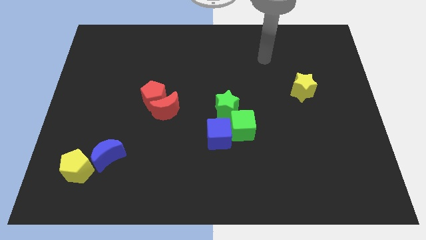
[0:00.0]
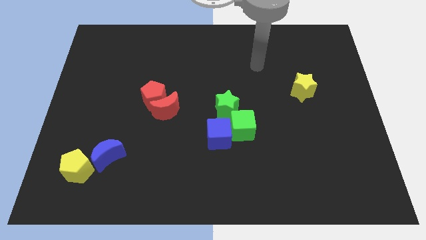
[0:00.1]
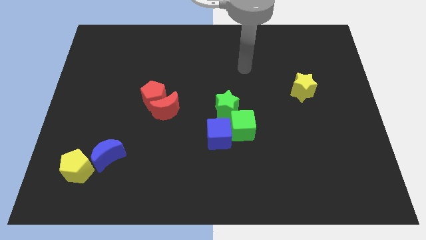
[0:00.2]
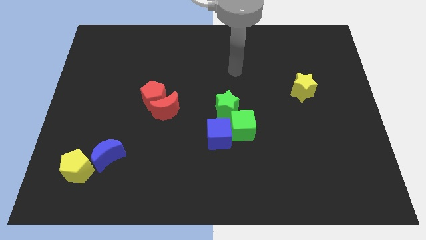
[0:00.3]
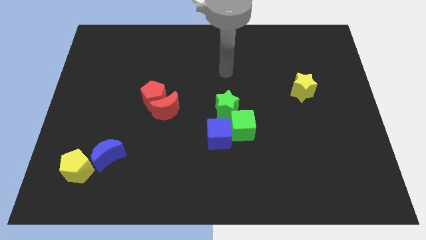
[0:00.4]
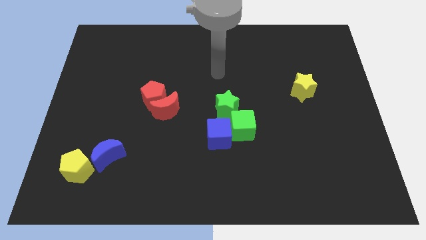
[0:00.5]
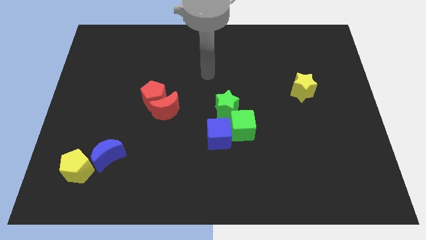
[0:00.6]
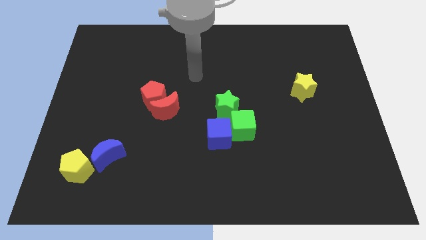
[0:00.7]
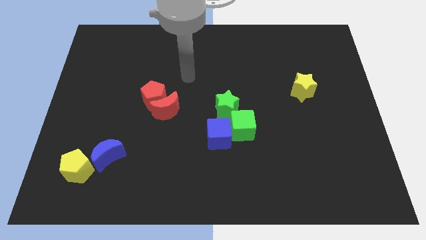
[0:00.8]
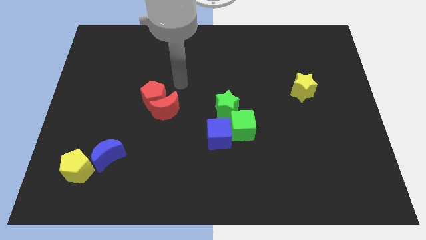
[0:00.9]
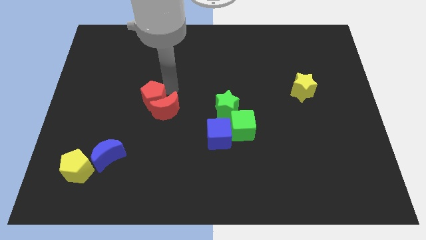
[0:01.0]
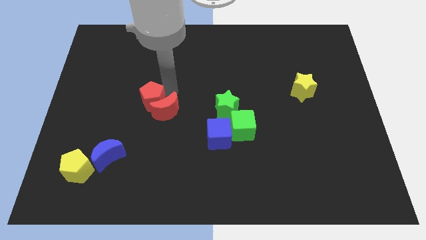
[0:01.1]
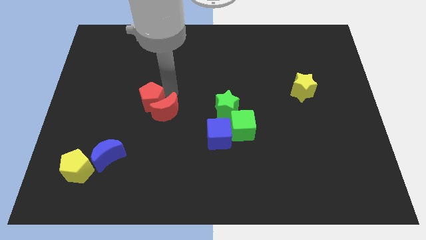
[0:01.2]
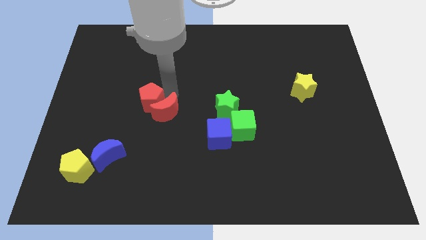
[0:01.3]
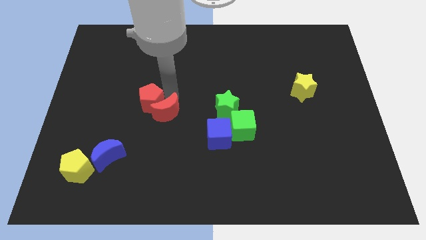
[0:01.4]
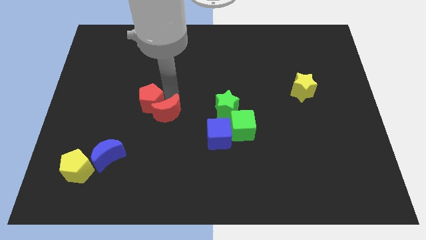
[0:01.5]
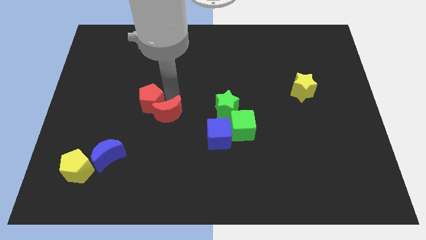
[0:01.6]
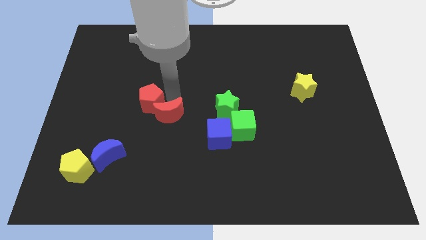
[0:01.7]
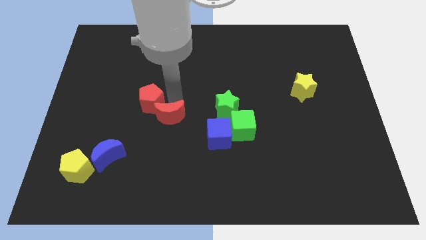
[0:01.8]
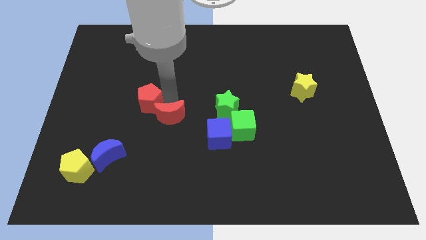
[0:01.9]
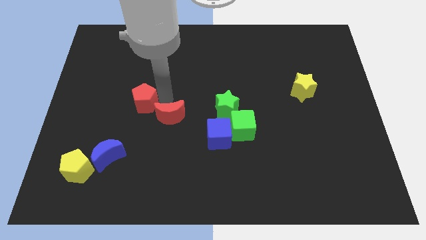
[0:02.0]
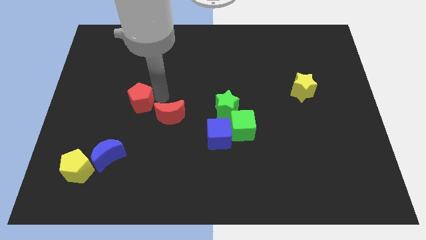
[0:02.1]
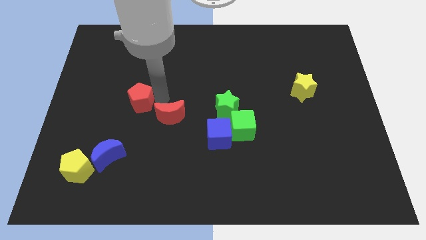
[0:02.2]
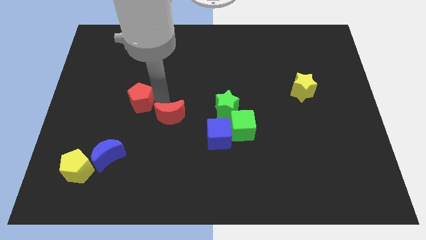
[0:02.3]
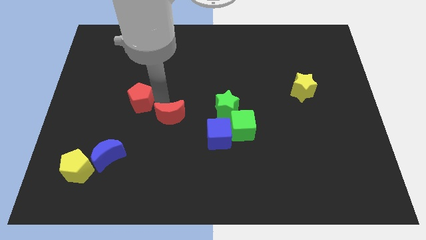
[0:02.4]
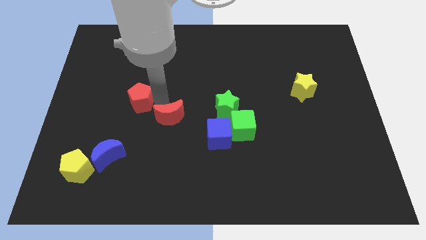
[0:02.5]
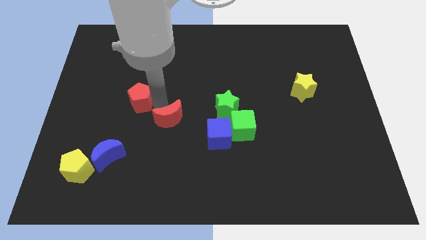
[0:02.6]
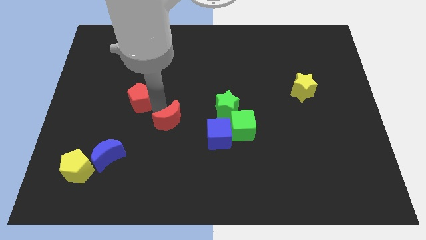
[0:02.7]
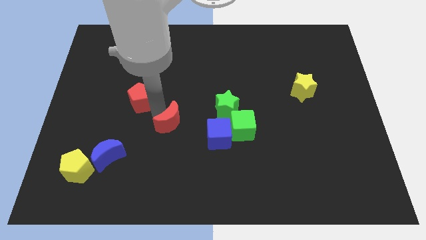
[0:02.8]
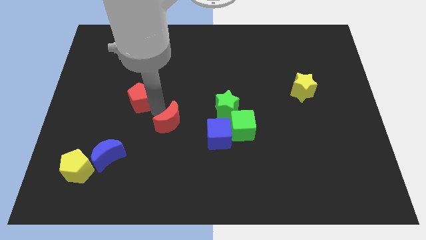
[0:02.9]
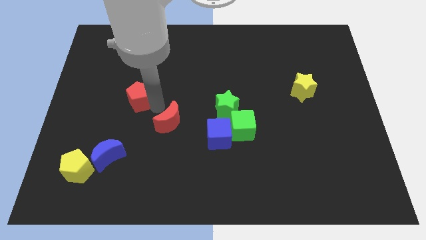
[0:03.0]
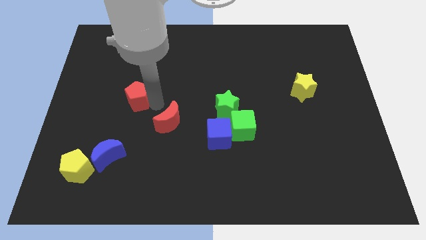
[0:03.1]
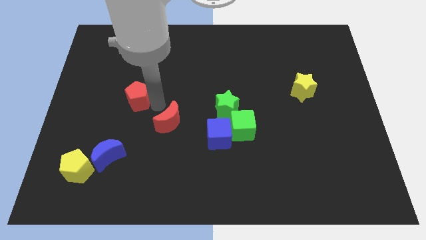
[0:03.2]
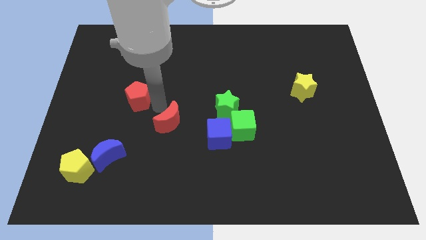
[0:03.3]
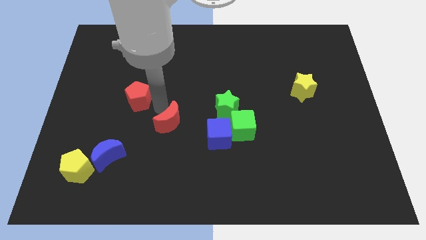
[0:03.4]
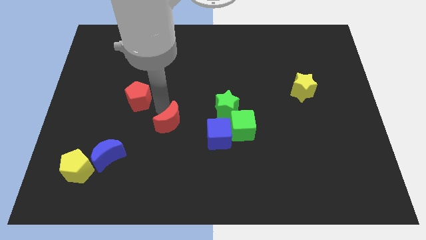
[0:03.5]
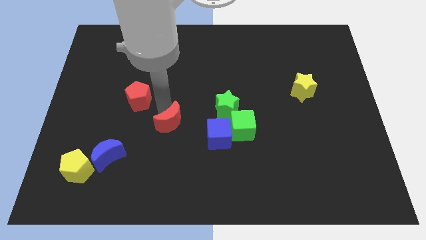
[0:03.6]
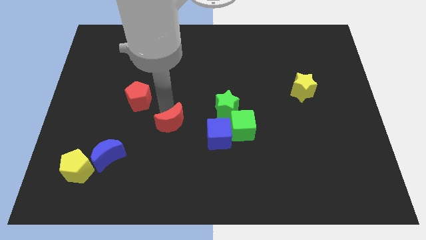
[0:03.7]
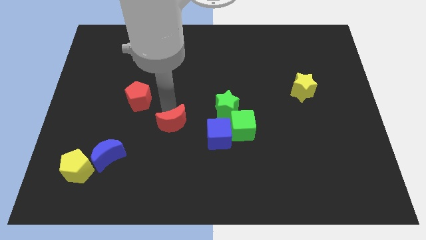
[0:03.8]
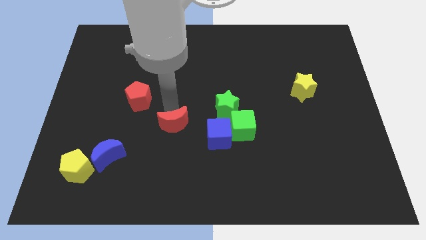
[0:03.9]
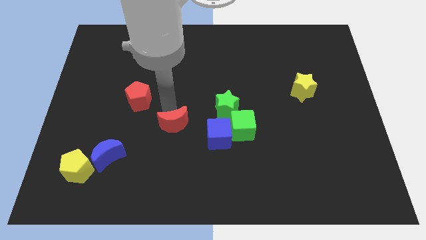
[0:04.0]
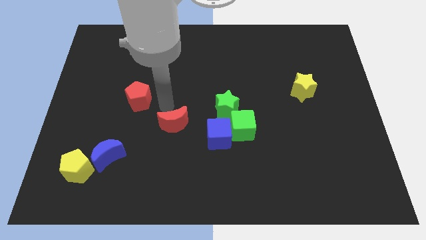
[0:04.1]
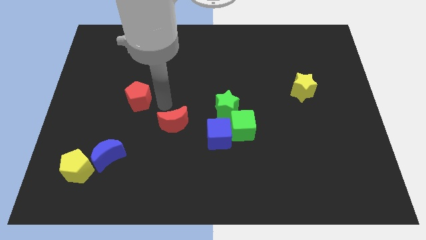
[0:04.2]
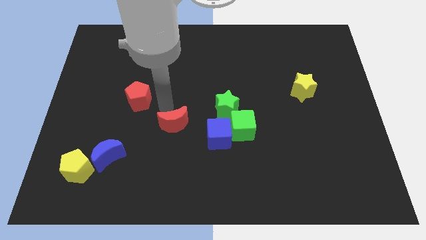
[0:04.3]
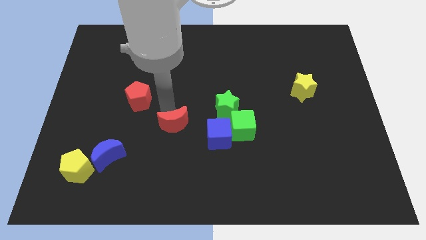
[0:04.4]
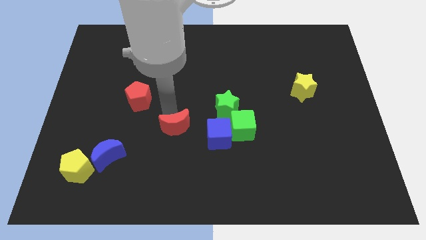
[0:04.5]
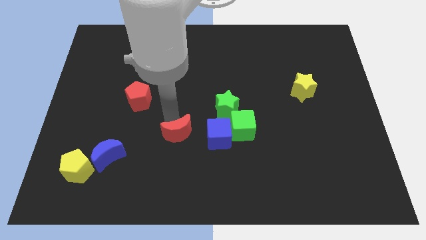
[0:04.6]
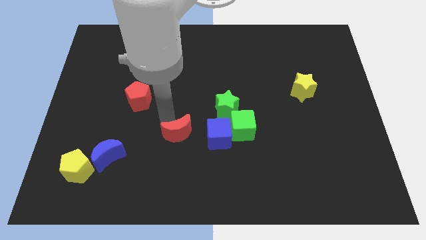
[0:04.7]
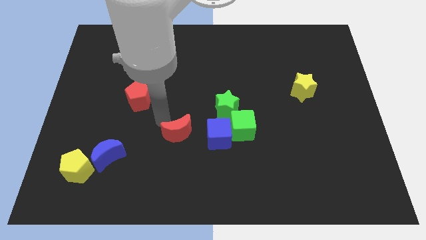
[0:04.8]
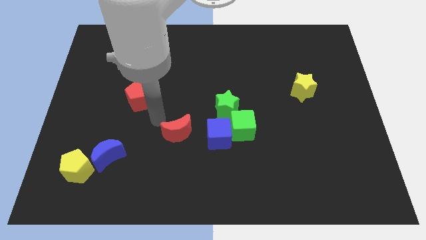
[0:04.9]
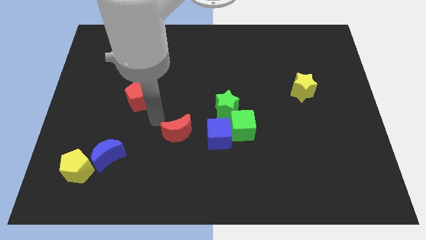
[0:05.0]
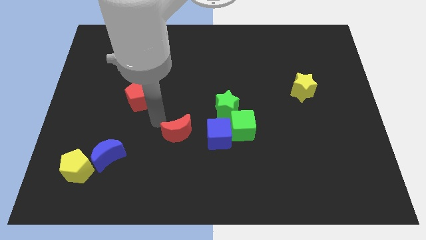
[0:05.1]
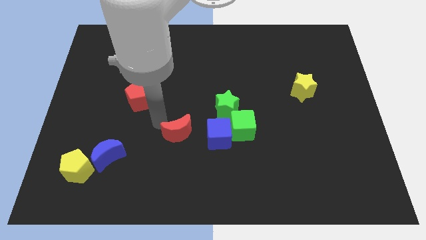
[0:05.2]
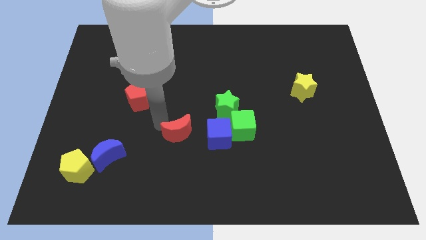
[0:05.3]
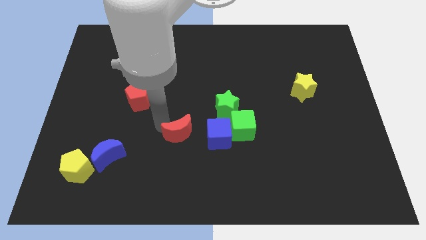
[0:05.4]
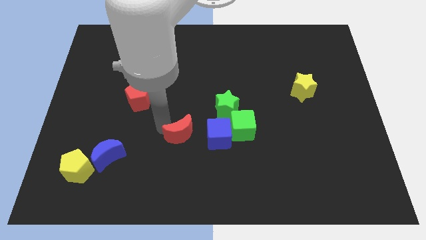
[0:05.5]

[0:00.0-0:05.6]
slide the red moon somewhat diagonally downwards and to the right

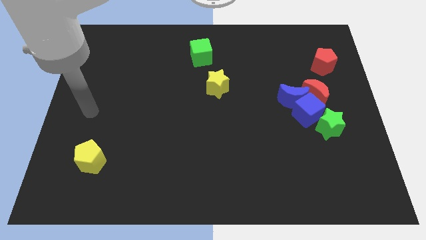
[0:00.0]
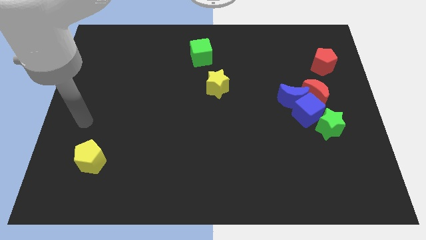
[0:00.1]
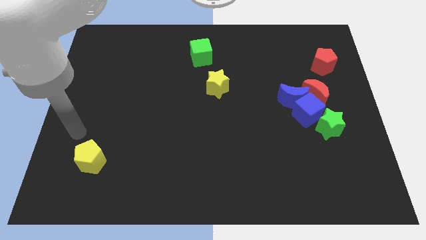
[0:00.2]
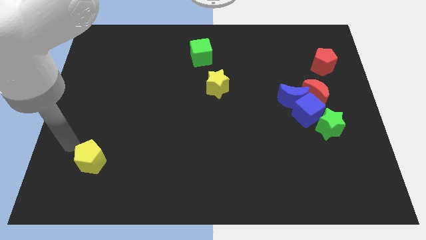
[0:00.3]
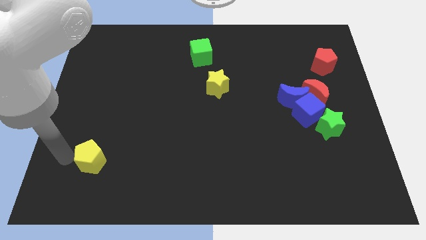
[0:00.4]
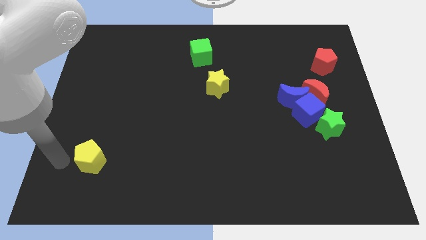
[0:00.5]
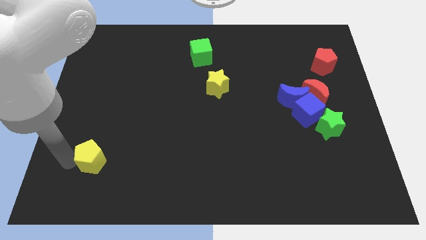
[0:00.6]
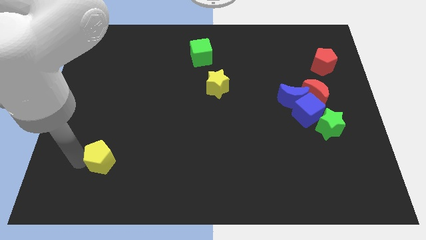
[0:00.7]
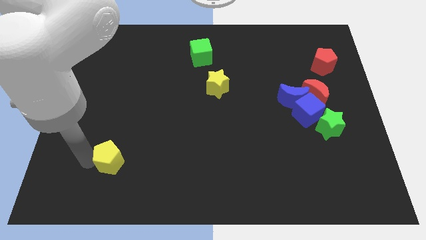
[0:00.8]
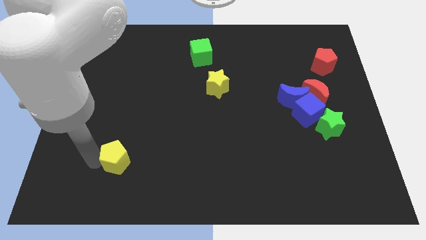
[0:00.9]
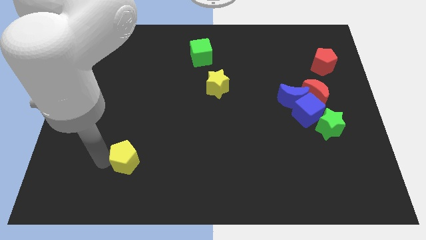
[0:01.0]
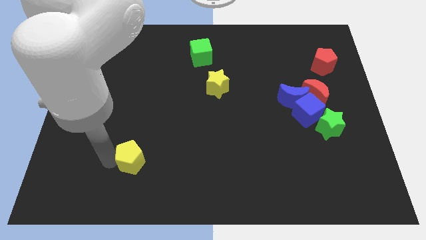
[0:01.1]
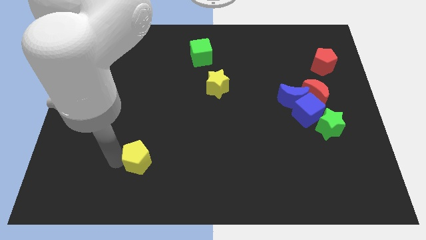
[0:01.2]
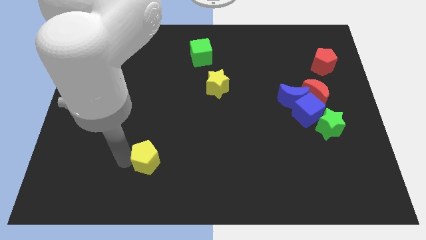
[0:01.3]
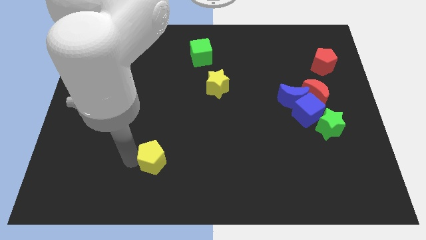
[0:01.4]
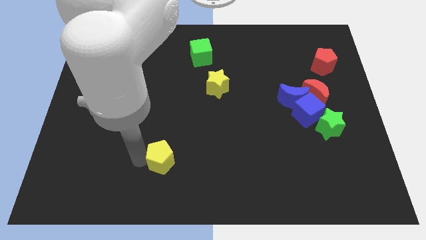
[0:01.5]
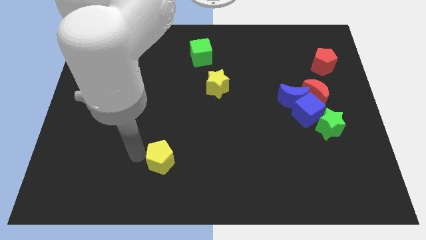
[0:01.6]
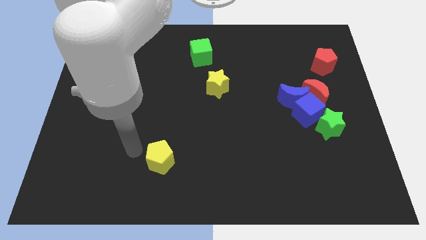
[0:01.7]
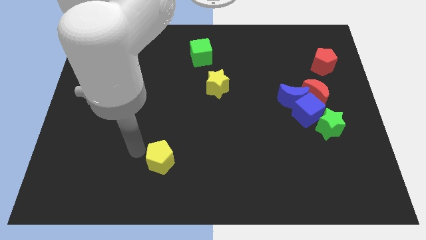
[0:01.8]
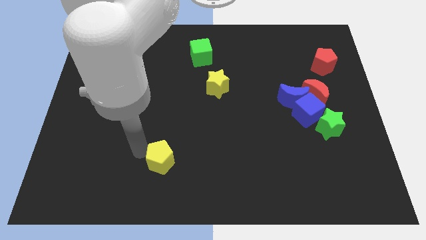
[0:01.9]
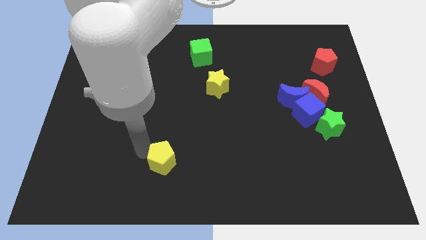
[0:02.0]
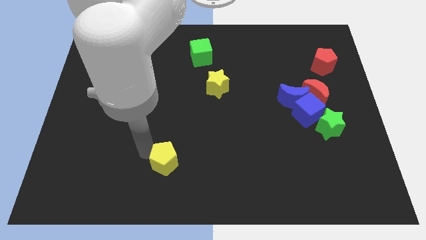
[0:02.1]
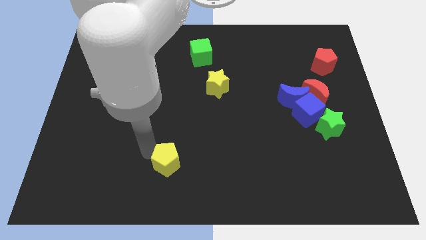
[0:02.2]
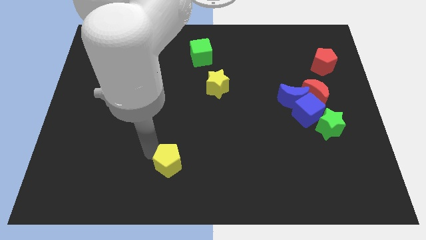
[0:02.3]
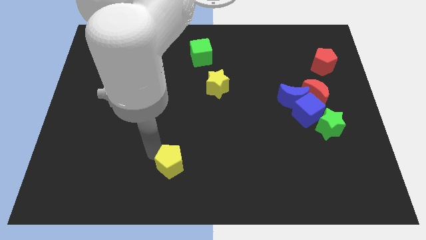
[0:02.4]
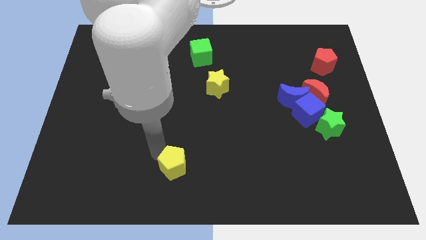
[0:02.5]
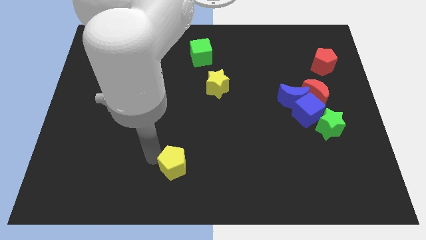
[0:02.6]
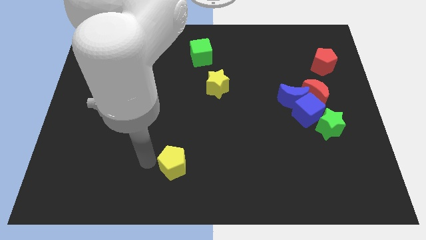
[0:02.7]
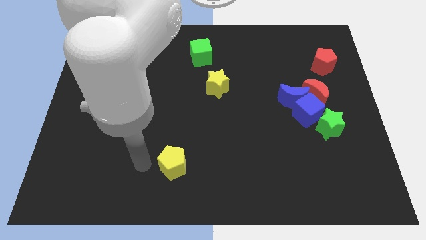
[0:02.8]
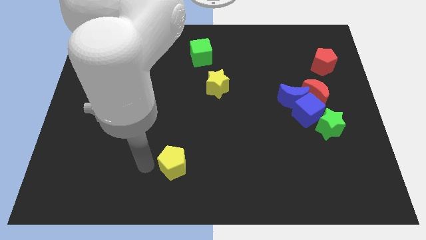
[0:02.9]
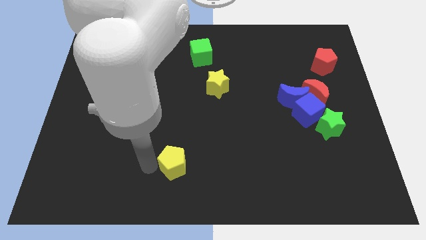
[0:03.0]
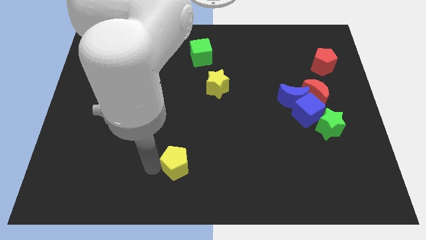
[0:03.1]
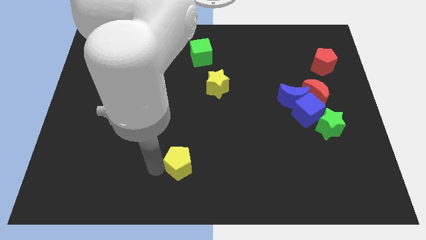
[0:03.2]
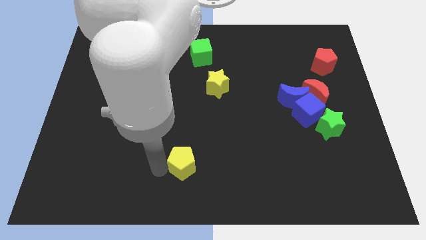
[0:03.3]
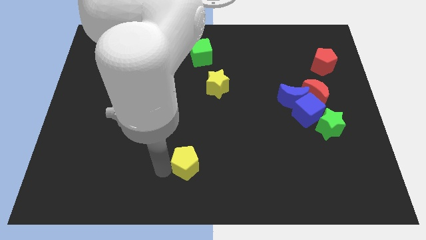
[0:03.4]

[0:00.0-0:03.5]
push the yellow pentagon to the right
